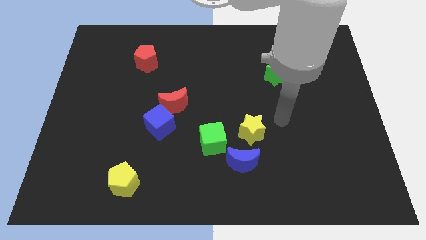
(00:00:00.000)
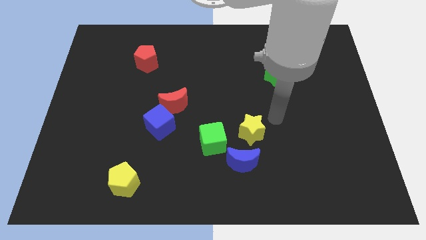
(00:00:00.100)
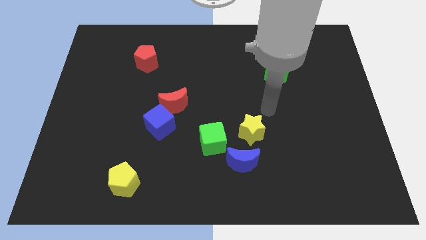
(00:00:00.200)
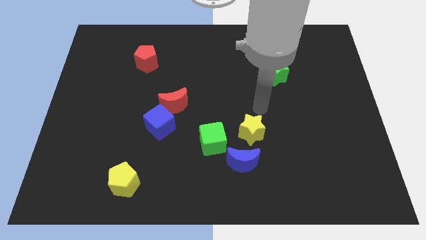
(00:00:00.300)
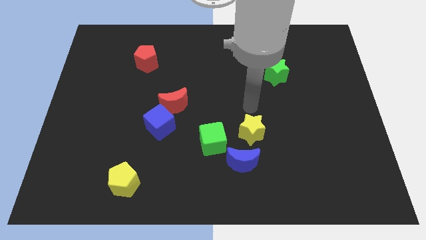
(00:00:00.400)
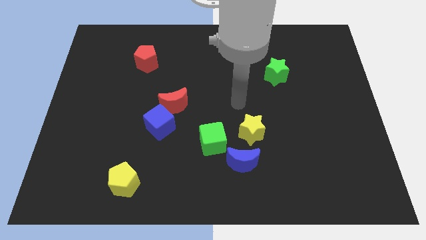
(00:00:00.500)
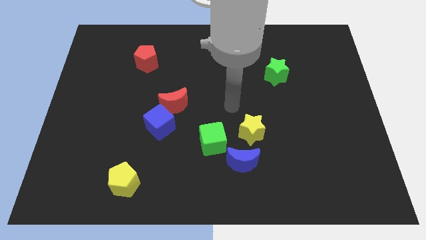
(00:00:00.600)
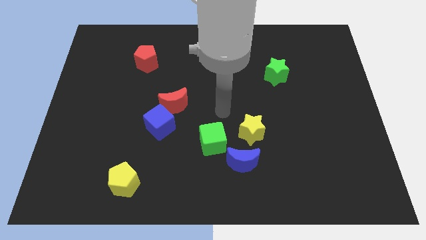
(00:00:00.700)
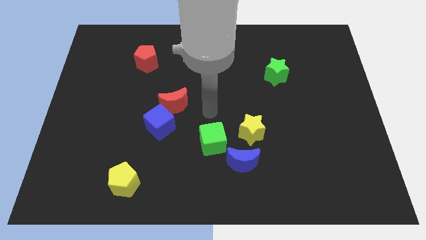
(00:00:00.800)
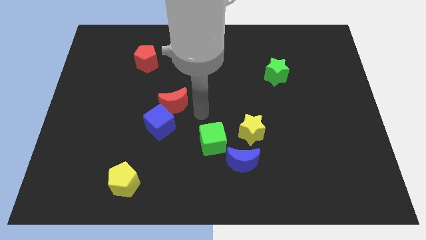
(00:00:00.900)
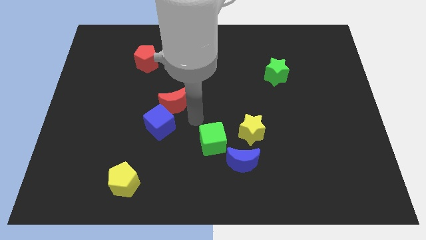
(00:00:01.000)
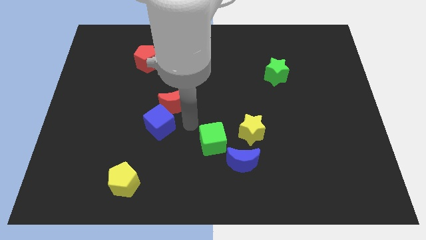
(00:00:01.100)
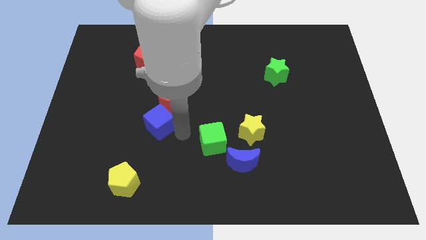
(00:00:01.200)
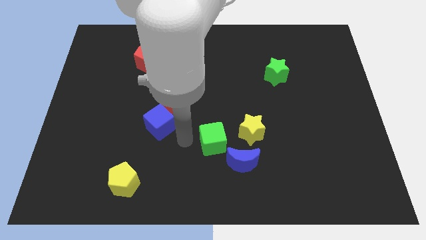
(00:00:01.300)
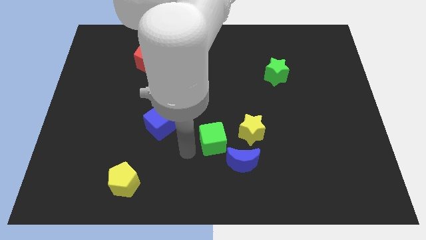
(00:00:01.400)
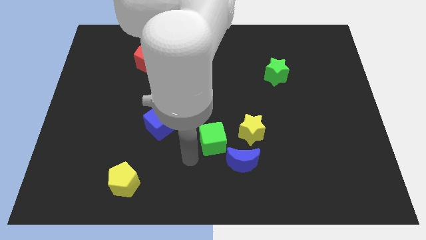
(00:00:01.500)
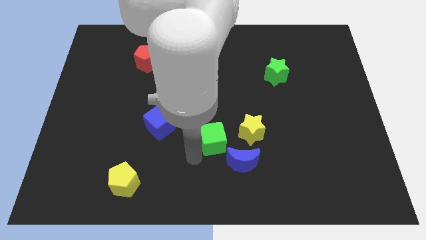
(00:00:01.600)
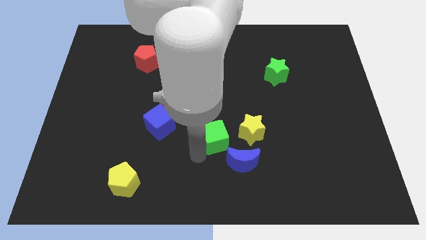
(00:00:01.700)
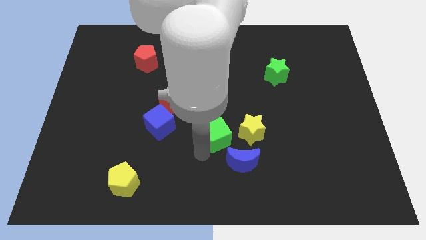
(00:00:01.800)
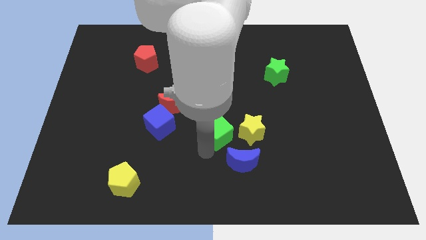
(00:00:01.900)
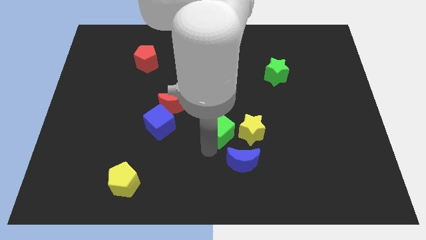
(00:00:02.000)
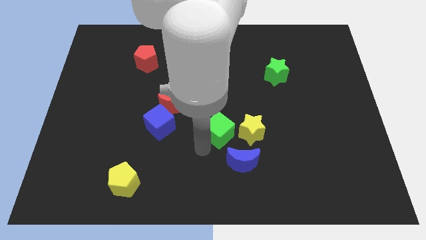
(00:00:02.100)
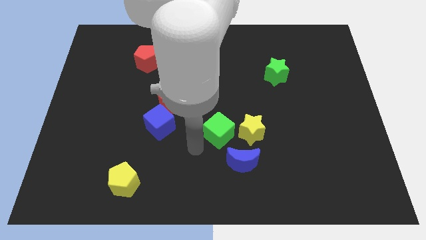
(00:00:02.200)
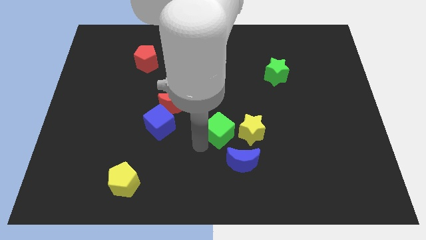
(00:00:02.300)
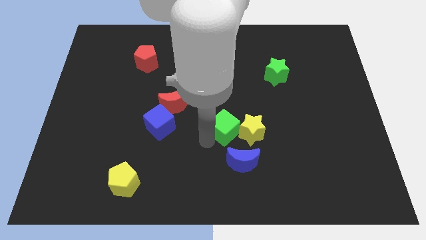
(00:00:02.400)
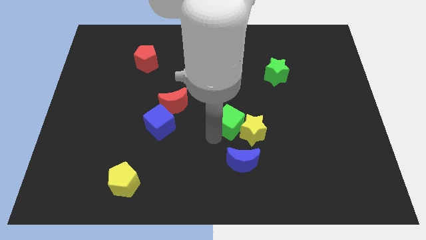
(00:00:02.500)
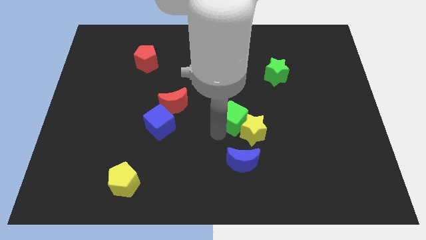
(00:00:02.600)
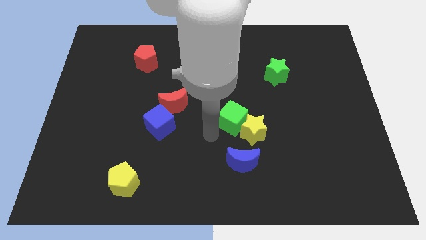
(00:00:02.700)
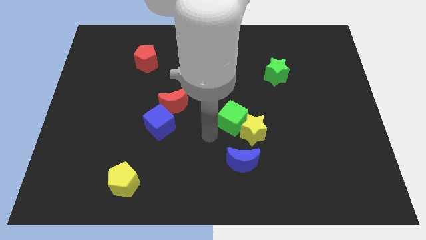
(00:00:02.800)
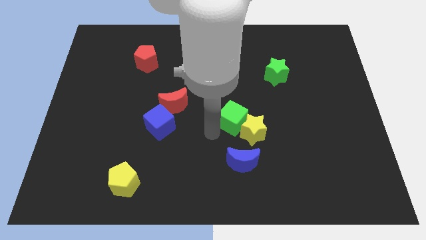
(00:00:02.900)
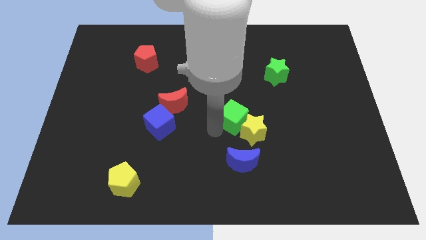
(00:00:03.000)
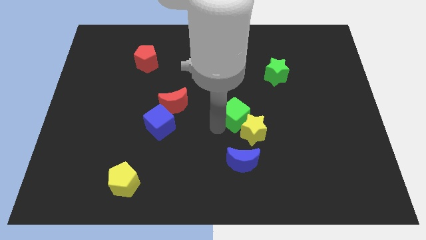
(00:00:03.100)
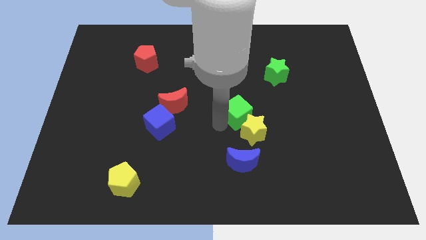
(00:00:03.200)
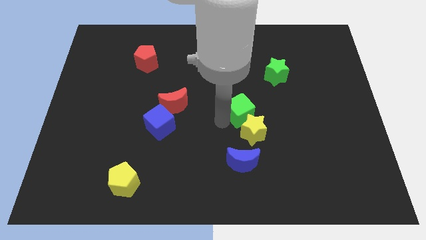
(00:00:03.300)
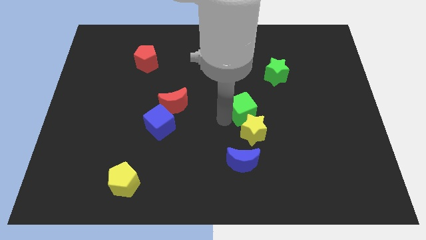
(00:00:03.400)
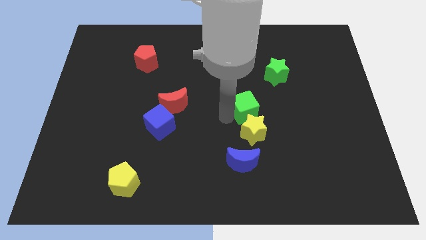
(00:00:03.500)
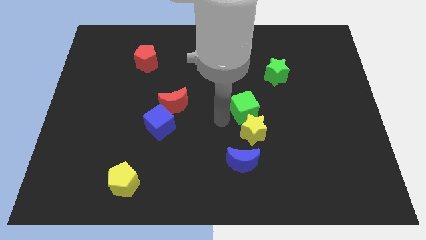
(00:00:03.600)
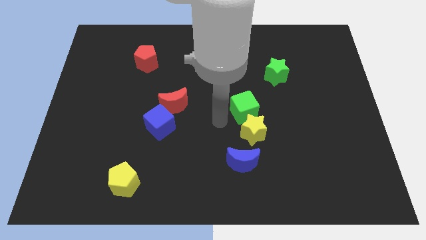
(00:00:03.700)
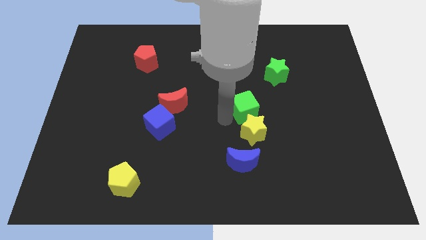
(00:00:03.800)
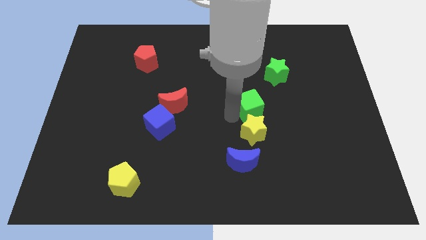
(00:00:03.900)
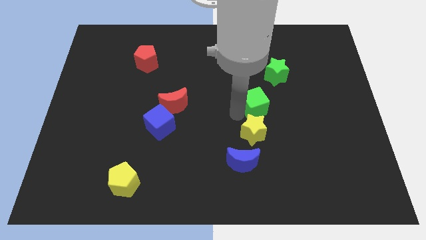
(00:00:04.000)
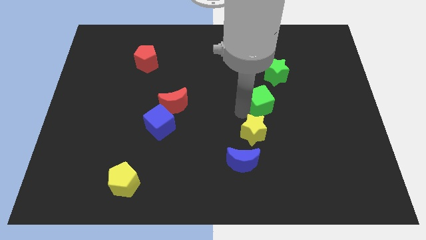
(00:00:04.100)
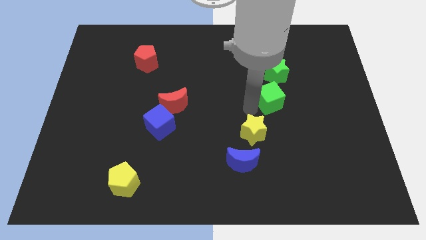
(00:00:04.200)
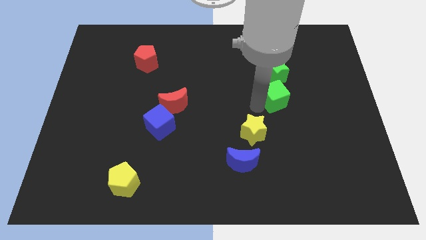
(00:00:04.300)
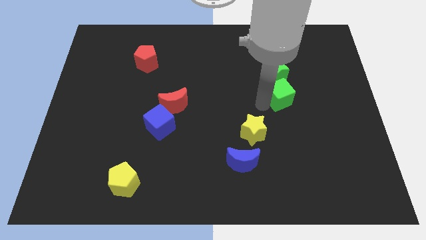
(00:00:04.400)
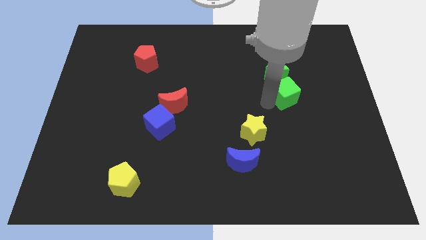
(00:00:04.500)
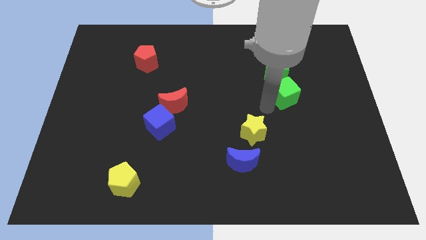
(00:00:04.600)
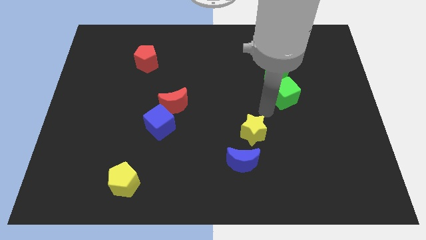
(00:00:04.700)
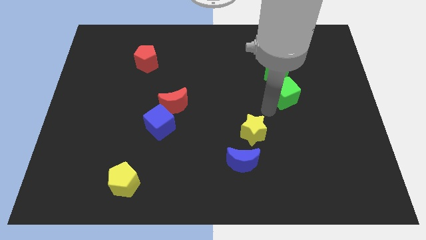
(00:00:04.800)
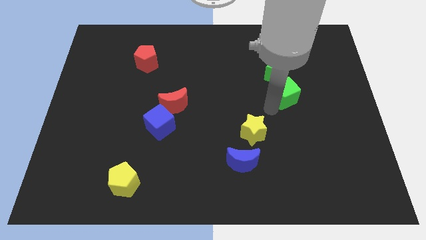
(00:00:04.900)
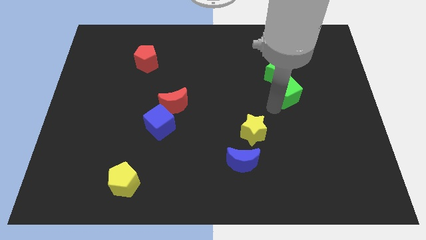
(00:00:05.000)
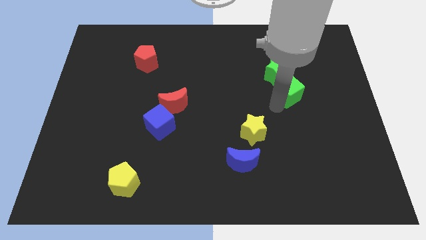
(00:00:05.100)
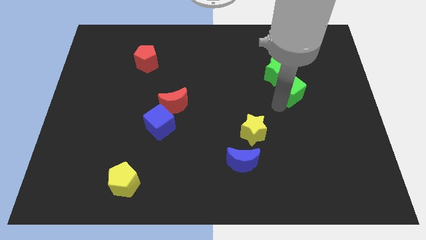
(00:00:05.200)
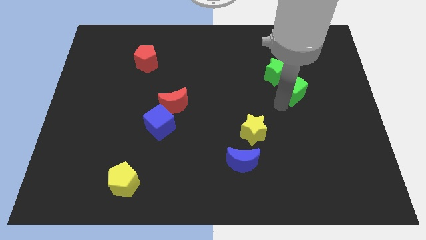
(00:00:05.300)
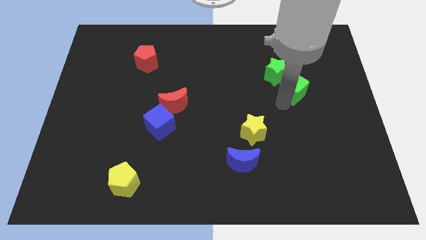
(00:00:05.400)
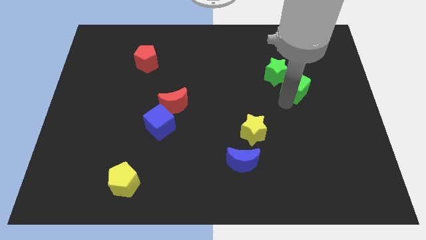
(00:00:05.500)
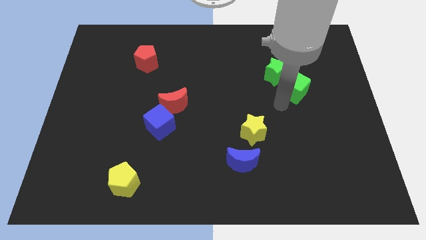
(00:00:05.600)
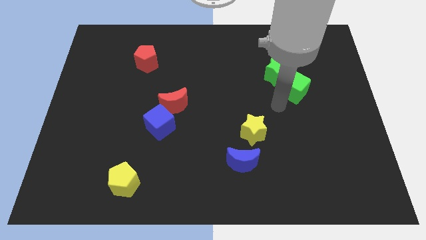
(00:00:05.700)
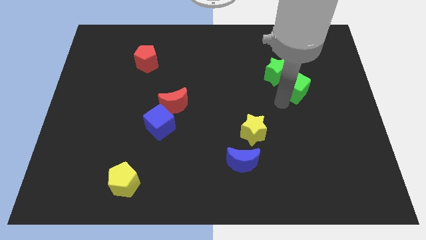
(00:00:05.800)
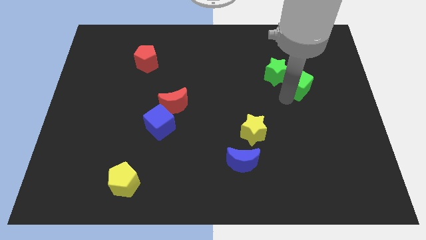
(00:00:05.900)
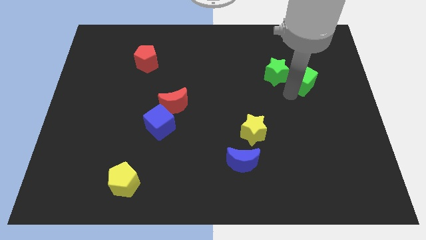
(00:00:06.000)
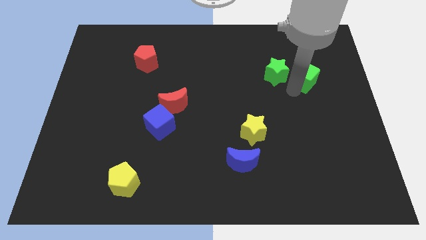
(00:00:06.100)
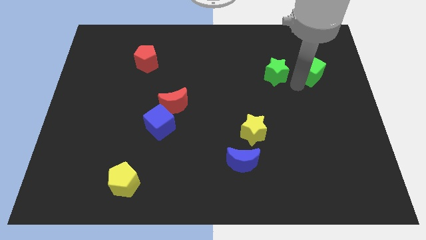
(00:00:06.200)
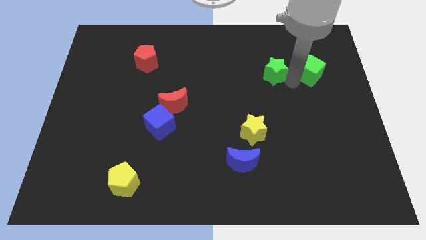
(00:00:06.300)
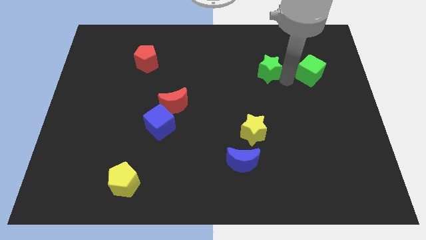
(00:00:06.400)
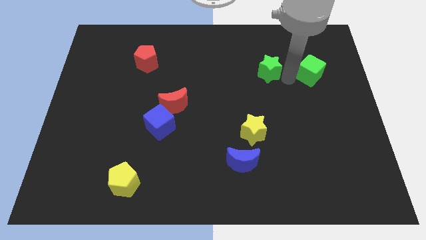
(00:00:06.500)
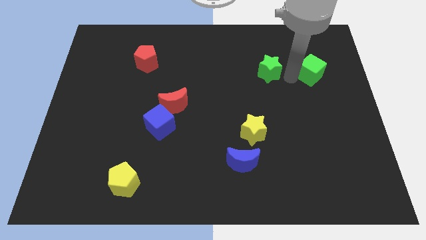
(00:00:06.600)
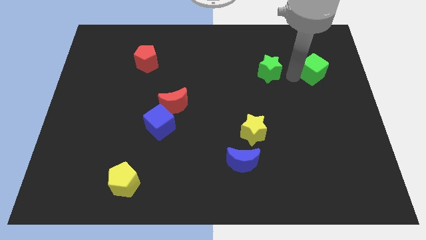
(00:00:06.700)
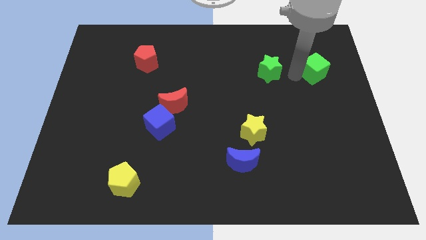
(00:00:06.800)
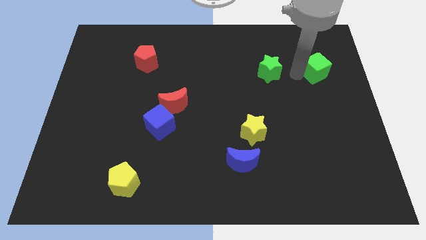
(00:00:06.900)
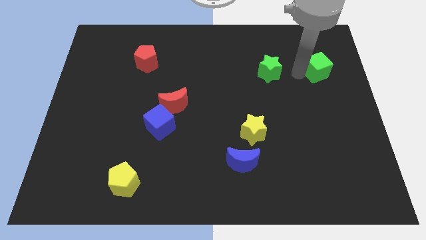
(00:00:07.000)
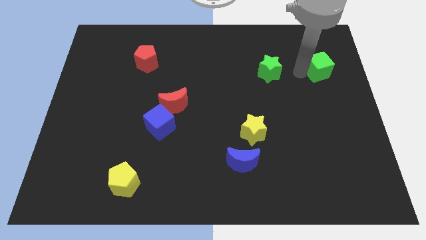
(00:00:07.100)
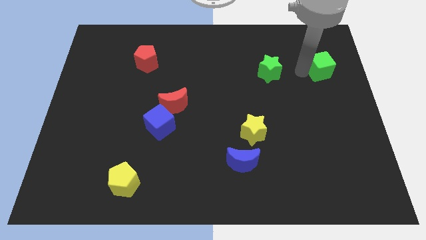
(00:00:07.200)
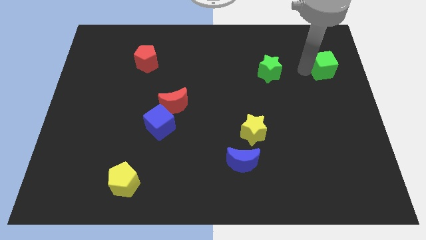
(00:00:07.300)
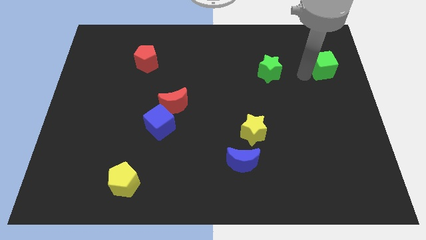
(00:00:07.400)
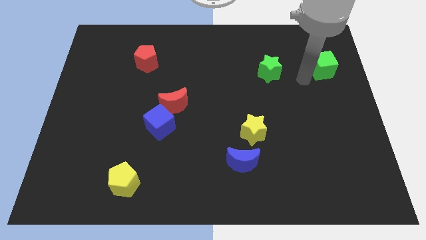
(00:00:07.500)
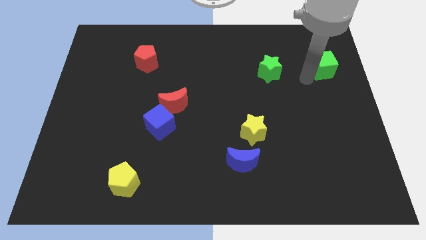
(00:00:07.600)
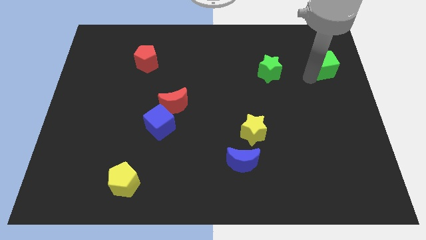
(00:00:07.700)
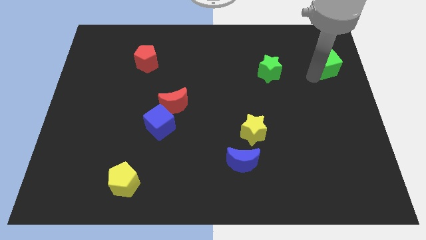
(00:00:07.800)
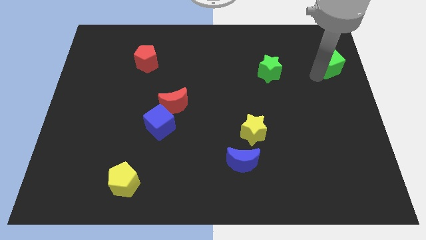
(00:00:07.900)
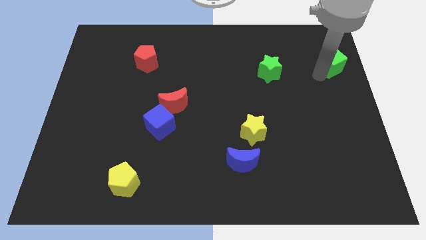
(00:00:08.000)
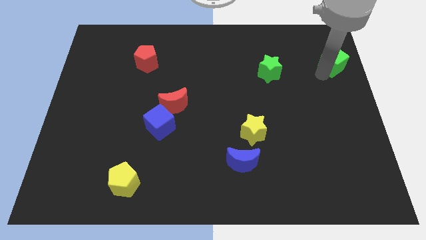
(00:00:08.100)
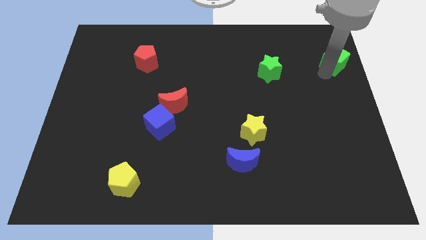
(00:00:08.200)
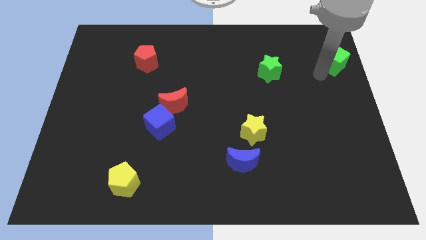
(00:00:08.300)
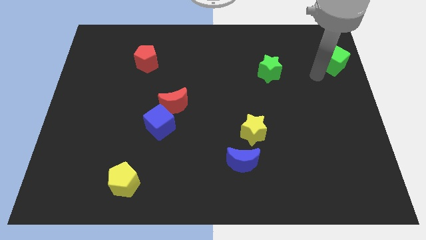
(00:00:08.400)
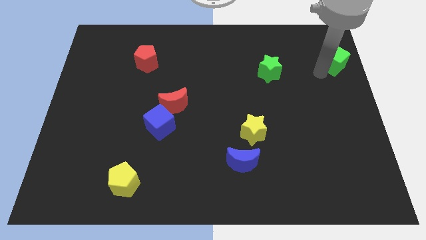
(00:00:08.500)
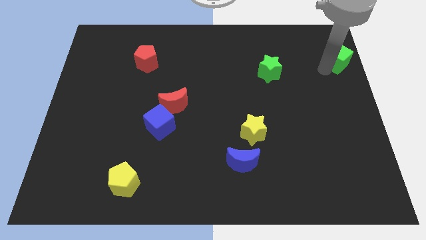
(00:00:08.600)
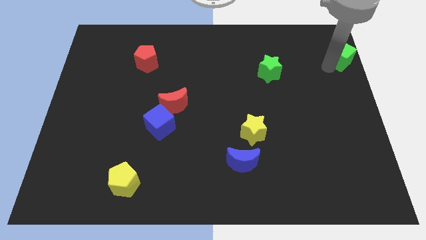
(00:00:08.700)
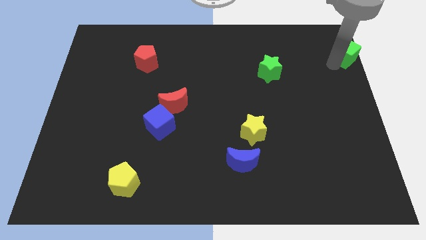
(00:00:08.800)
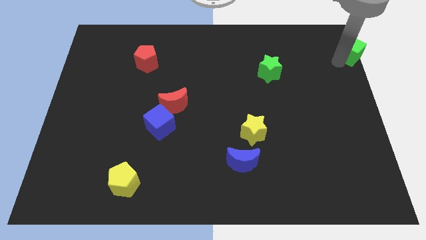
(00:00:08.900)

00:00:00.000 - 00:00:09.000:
slide the green cube to the upper right corner
